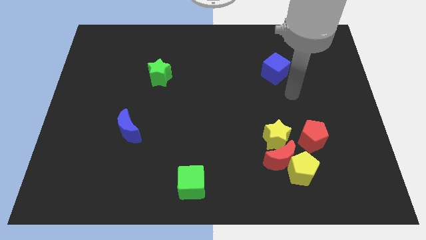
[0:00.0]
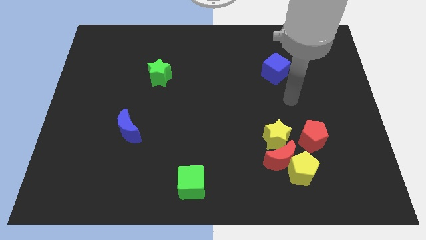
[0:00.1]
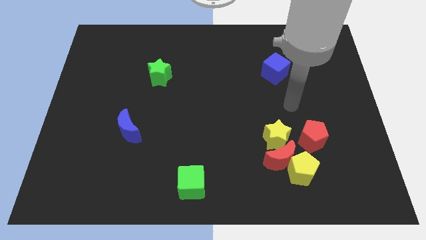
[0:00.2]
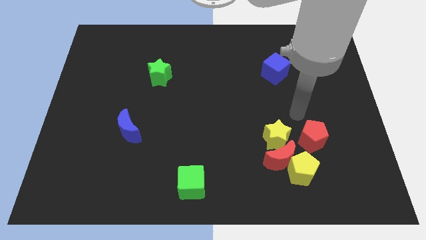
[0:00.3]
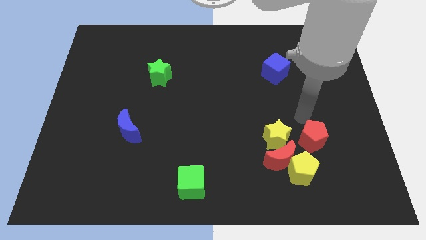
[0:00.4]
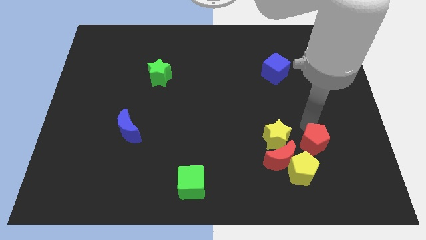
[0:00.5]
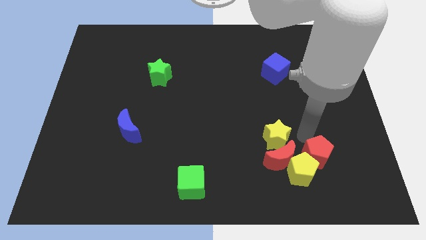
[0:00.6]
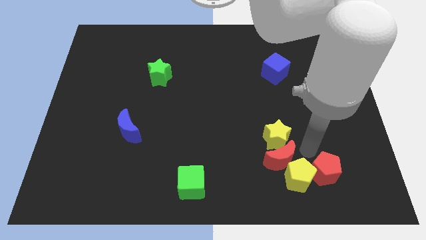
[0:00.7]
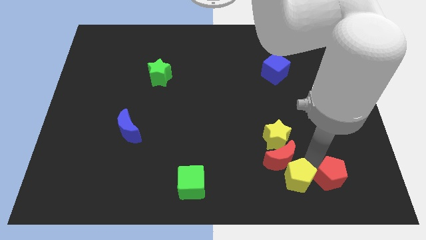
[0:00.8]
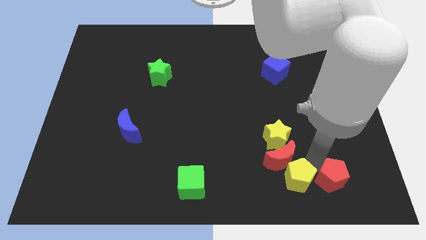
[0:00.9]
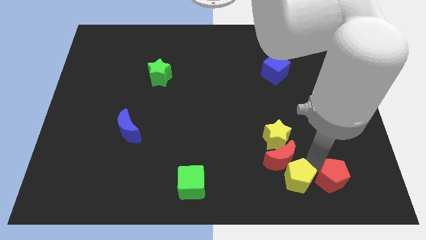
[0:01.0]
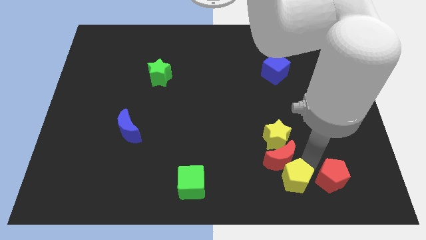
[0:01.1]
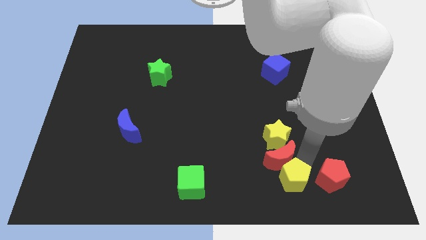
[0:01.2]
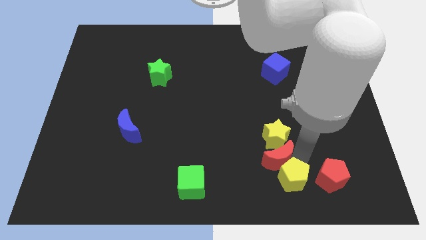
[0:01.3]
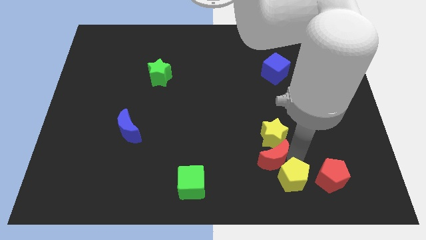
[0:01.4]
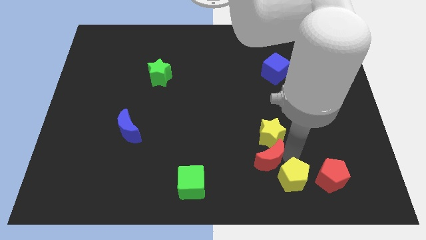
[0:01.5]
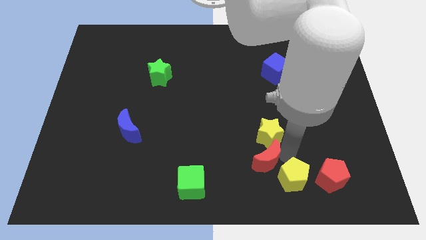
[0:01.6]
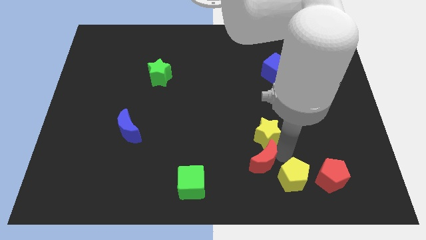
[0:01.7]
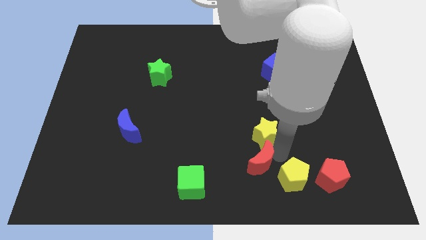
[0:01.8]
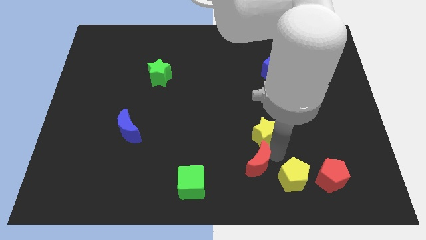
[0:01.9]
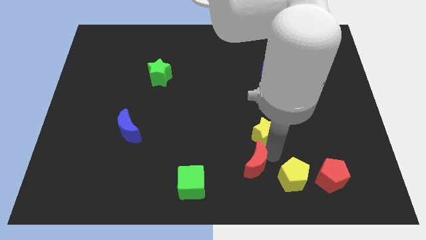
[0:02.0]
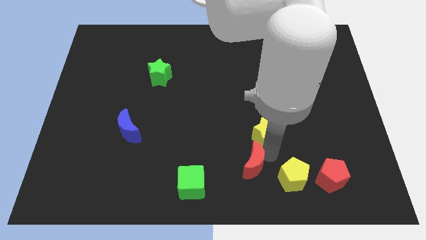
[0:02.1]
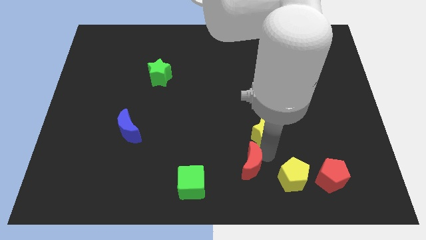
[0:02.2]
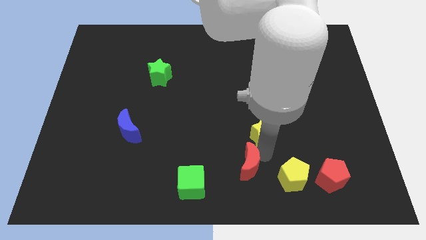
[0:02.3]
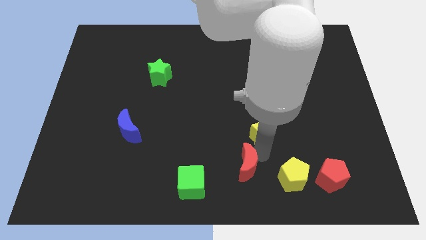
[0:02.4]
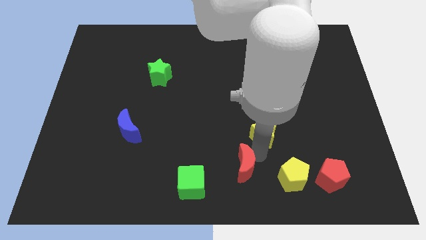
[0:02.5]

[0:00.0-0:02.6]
move the red moon away from the yellow pentagon, yellow star, and red pentagon

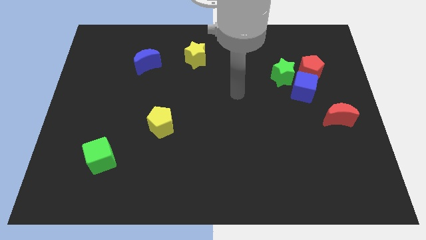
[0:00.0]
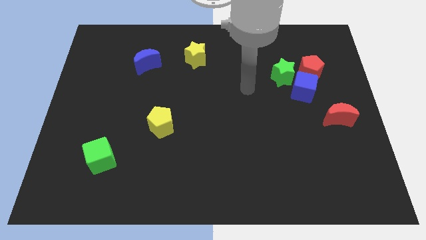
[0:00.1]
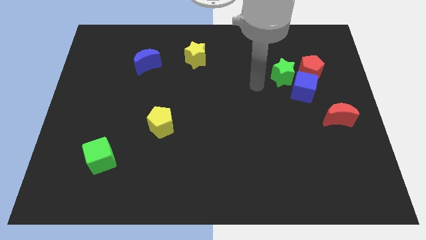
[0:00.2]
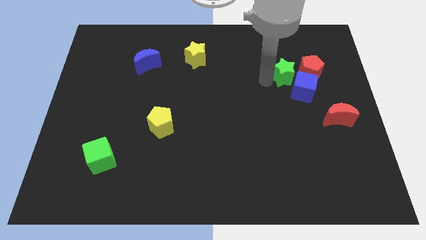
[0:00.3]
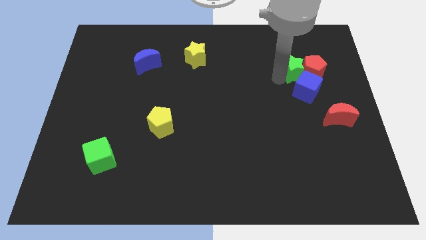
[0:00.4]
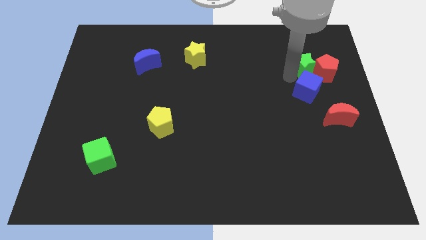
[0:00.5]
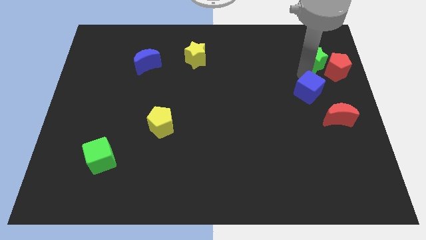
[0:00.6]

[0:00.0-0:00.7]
pull the blue cube apart from the red pentagon and green star

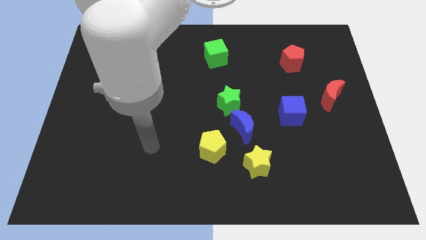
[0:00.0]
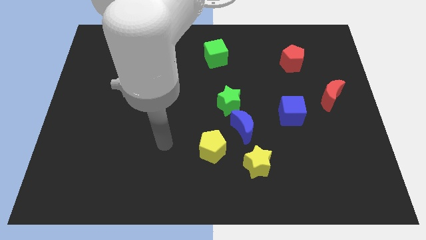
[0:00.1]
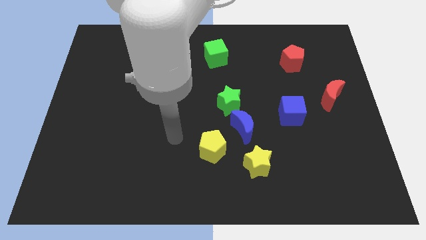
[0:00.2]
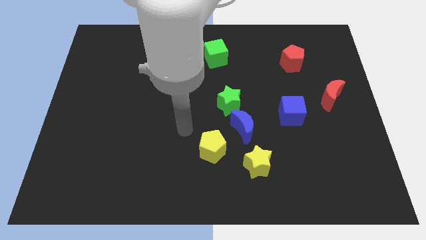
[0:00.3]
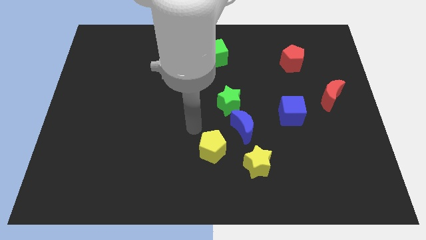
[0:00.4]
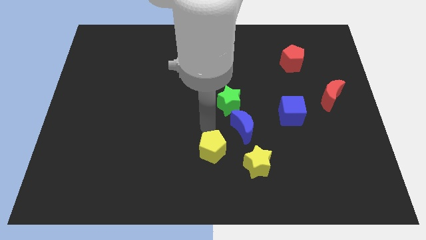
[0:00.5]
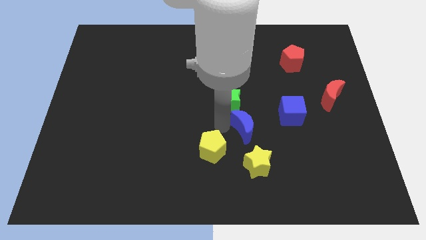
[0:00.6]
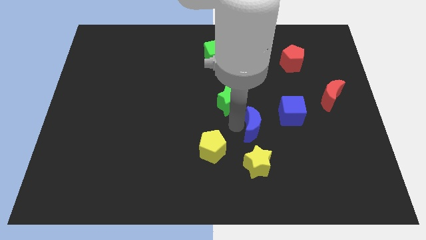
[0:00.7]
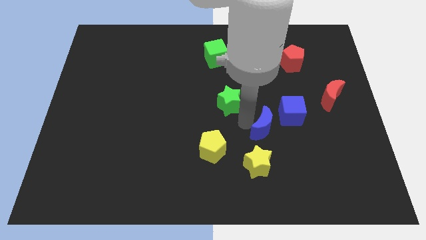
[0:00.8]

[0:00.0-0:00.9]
separate the green star from the blue moon

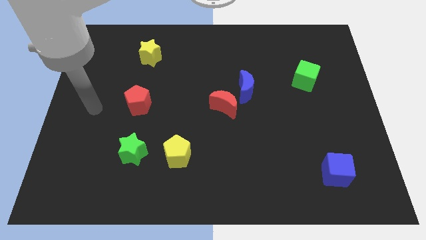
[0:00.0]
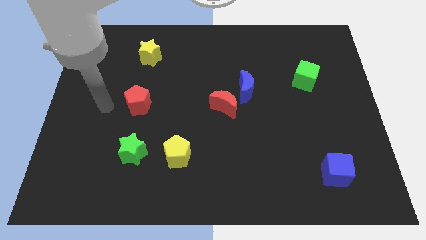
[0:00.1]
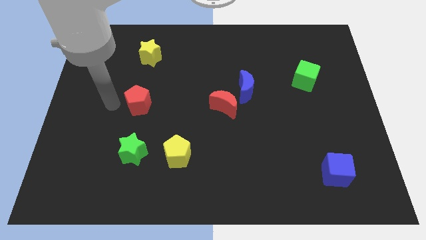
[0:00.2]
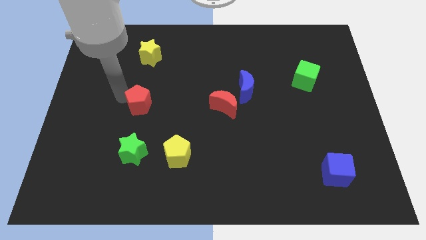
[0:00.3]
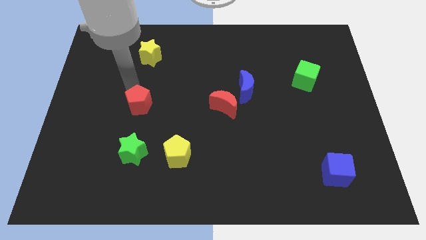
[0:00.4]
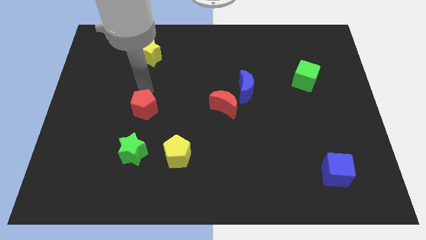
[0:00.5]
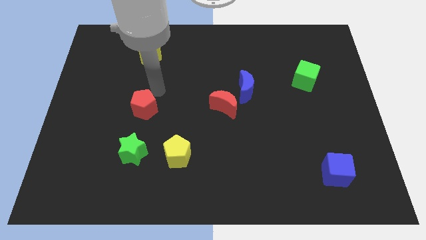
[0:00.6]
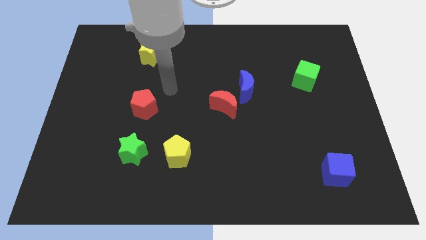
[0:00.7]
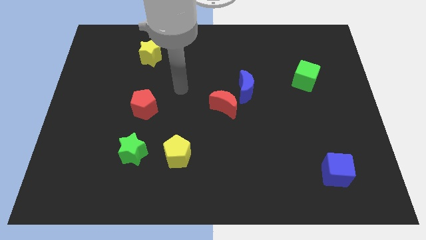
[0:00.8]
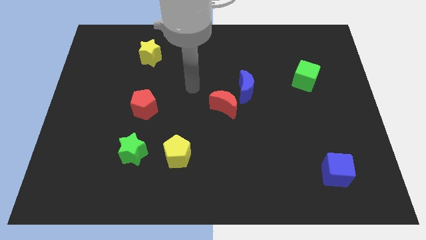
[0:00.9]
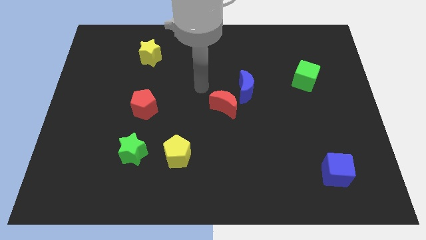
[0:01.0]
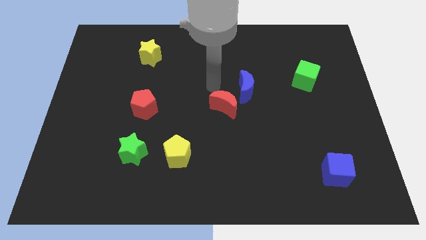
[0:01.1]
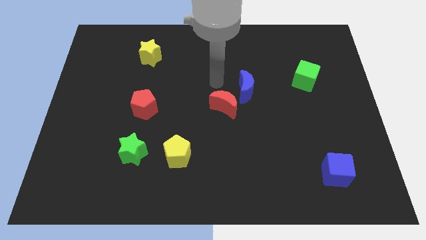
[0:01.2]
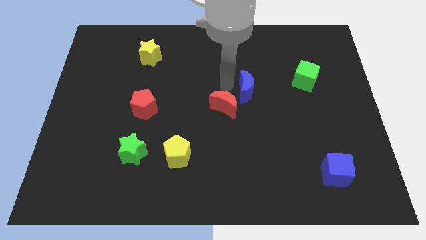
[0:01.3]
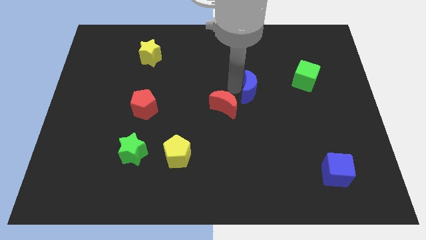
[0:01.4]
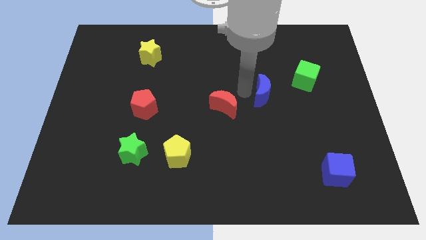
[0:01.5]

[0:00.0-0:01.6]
pull the red moon apart from the blue moon

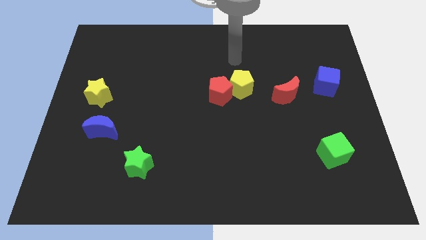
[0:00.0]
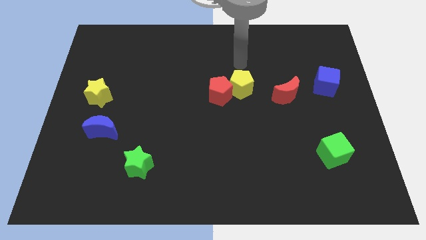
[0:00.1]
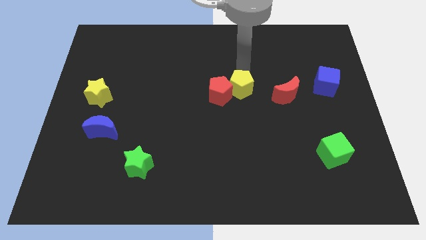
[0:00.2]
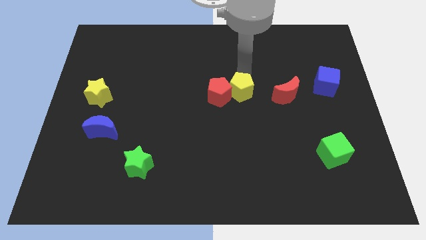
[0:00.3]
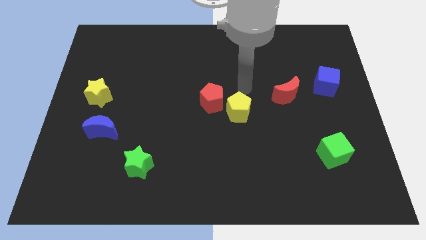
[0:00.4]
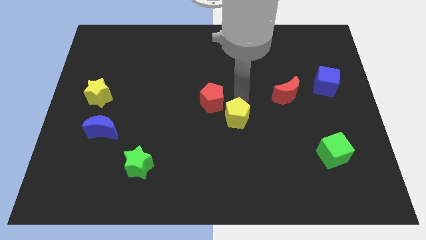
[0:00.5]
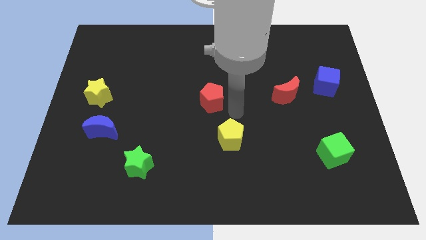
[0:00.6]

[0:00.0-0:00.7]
move the red pentagon away from the yellow pentagon

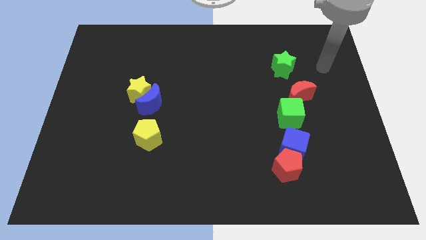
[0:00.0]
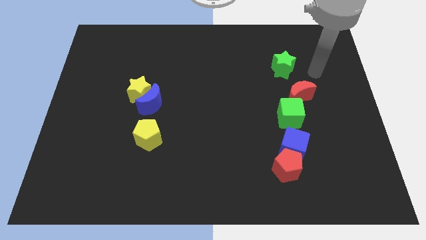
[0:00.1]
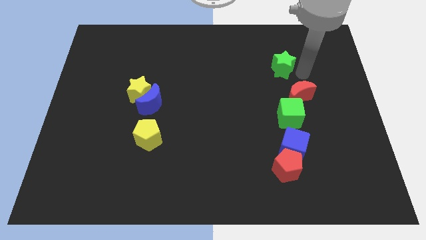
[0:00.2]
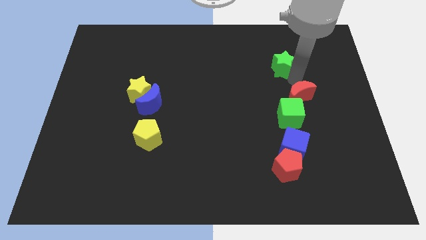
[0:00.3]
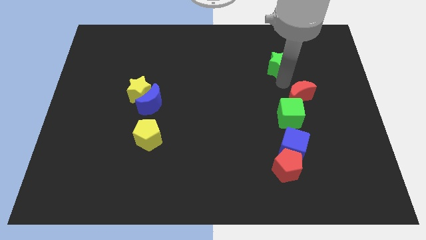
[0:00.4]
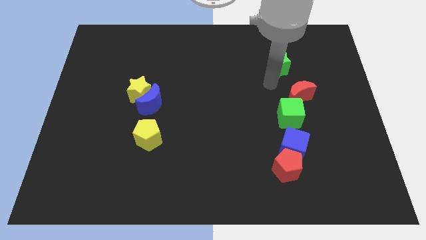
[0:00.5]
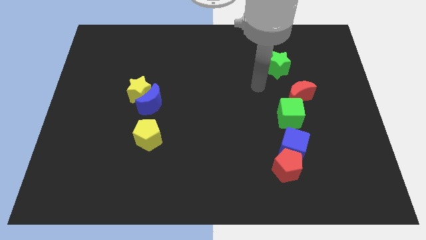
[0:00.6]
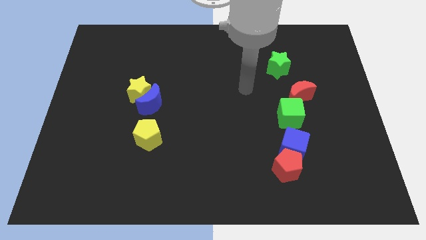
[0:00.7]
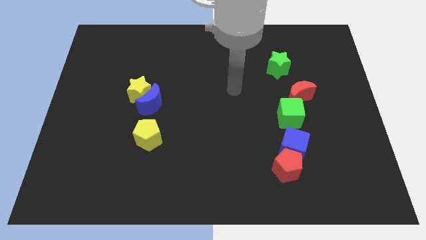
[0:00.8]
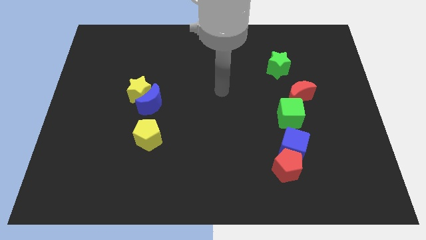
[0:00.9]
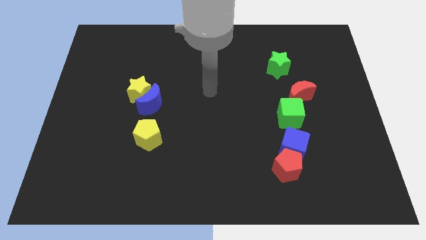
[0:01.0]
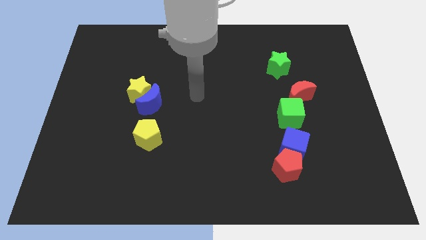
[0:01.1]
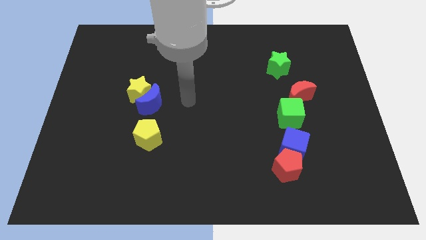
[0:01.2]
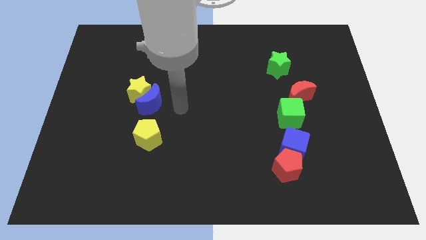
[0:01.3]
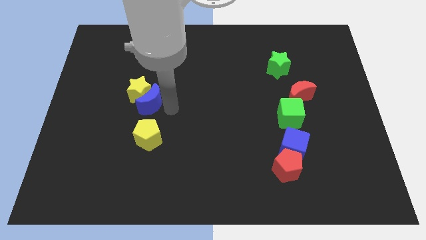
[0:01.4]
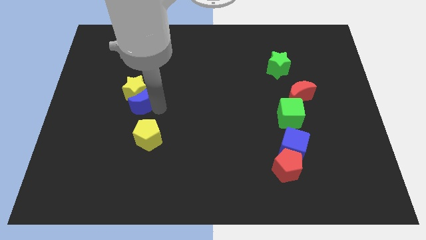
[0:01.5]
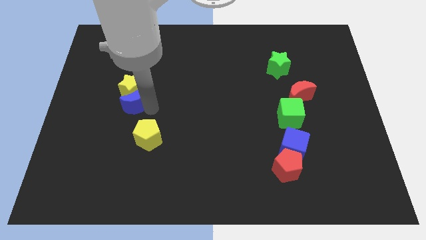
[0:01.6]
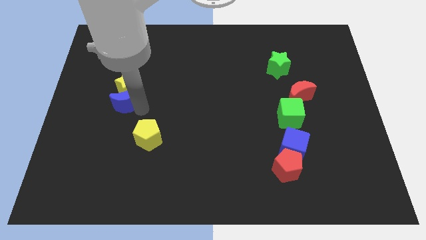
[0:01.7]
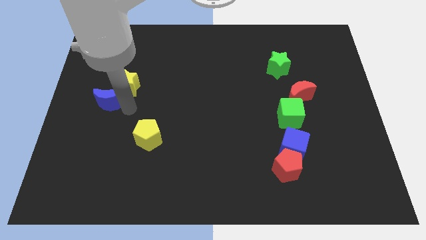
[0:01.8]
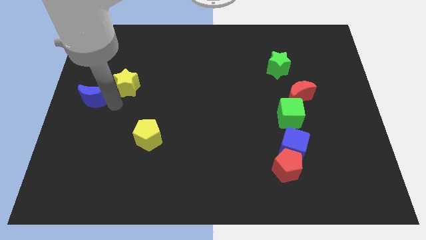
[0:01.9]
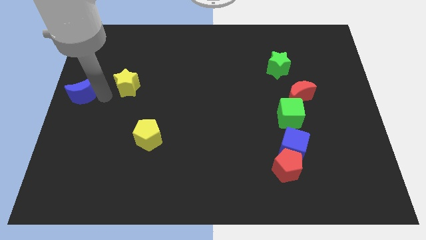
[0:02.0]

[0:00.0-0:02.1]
separate the yellow star from the blue moon

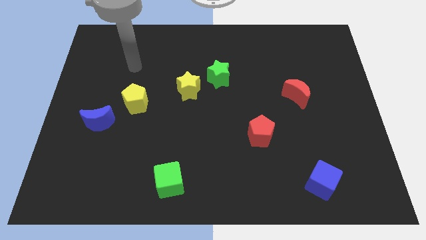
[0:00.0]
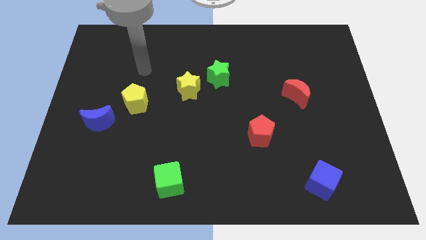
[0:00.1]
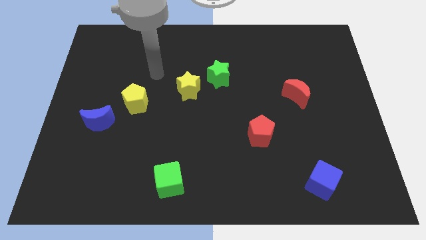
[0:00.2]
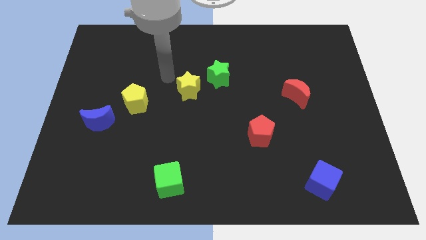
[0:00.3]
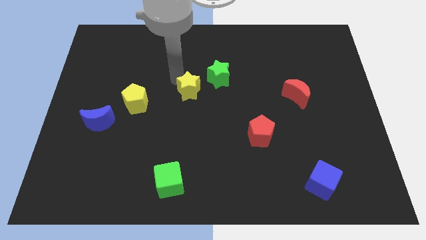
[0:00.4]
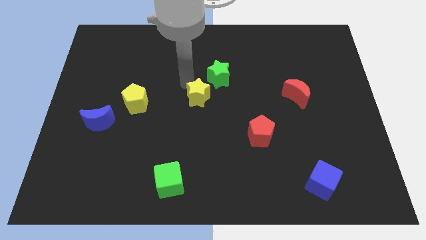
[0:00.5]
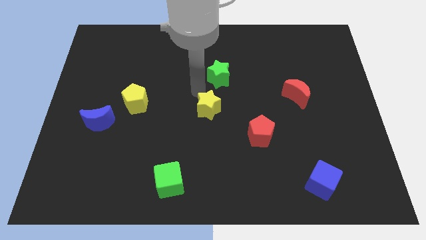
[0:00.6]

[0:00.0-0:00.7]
separate the green star from the yellow star
